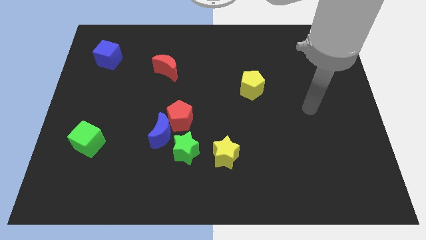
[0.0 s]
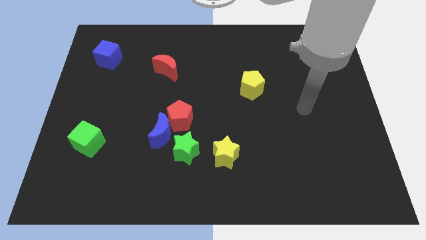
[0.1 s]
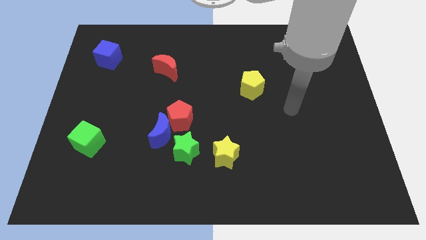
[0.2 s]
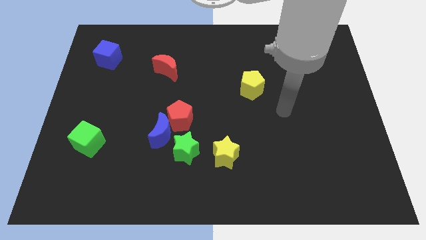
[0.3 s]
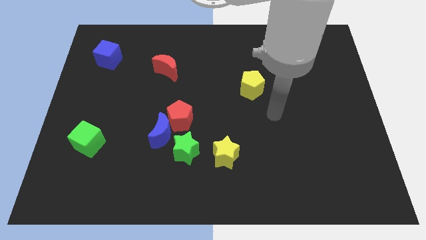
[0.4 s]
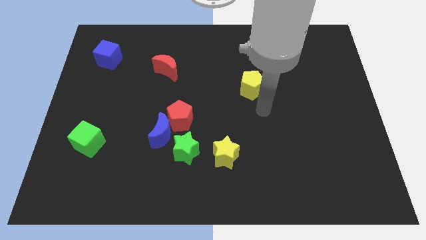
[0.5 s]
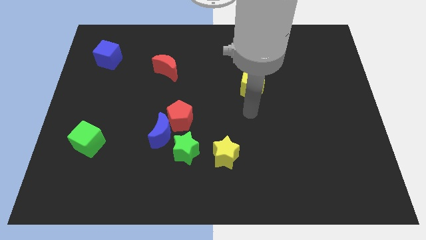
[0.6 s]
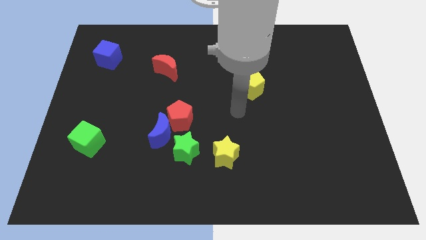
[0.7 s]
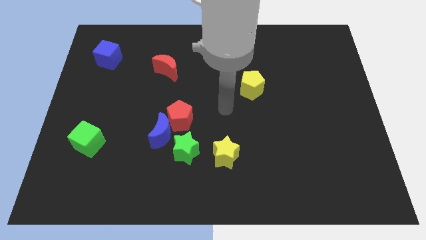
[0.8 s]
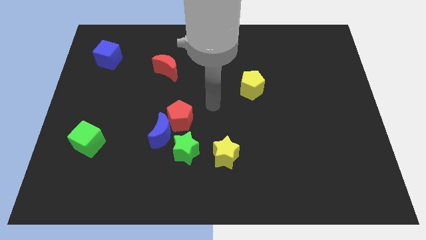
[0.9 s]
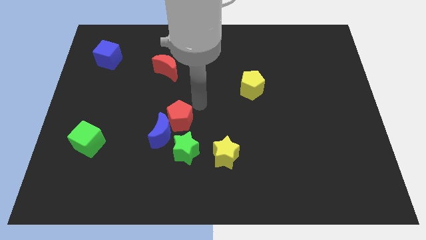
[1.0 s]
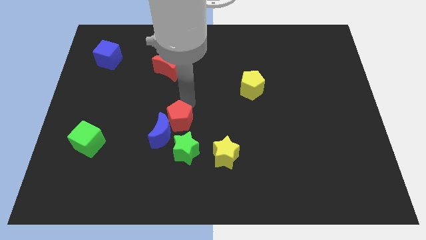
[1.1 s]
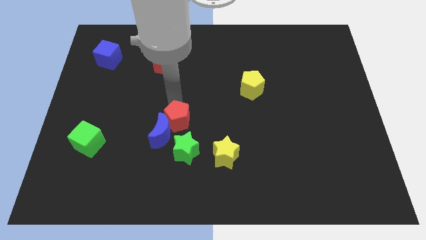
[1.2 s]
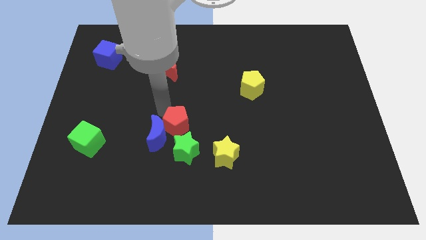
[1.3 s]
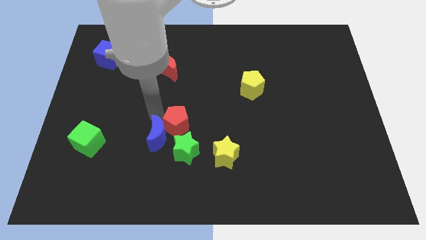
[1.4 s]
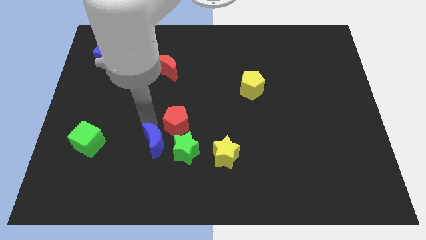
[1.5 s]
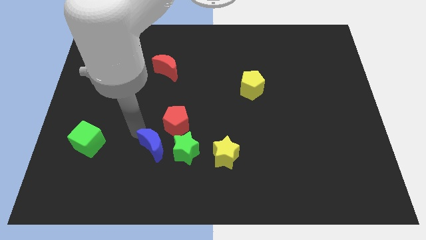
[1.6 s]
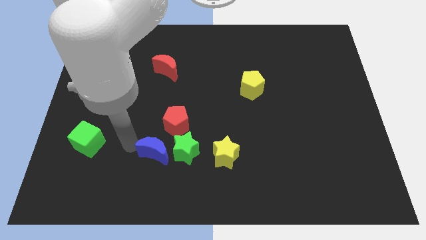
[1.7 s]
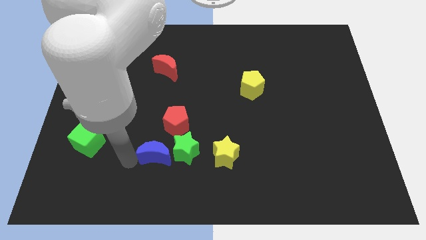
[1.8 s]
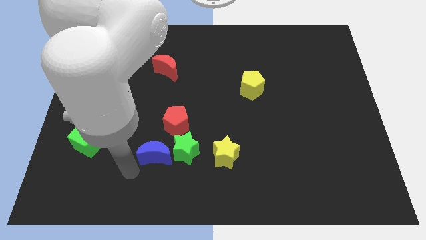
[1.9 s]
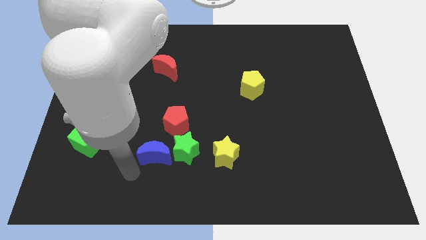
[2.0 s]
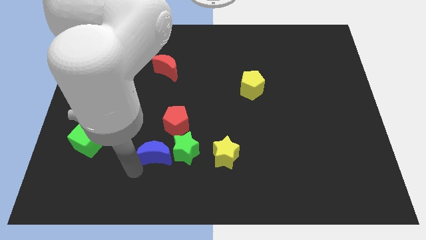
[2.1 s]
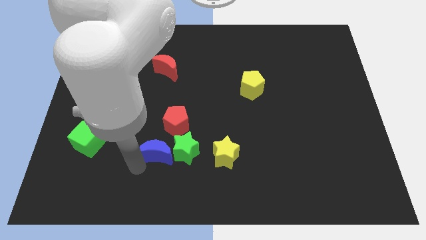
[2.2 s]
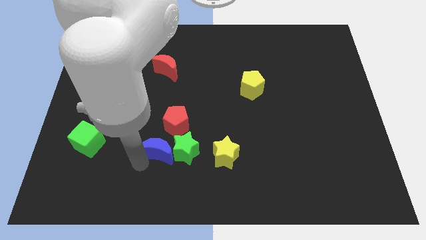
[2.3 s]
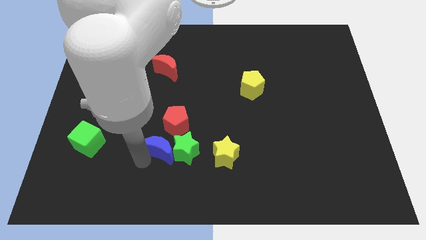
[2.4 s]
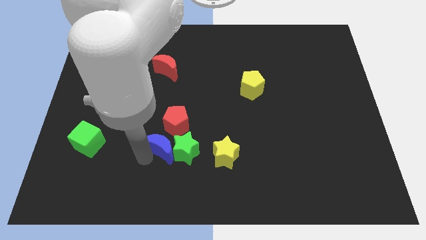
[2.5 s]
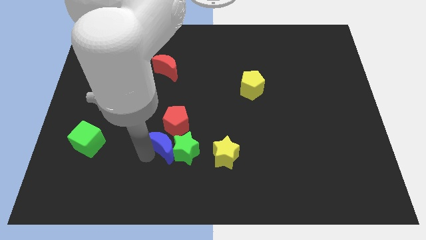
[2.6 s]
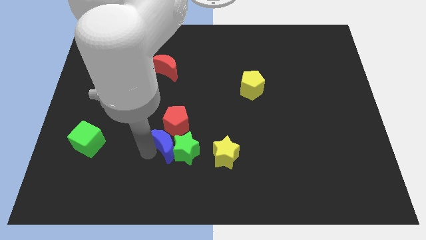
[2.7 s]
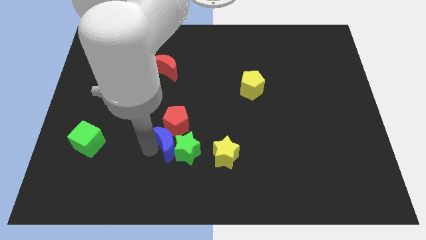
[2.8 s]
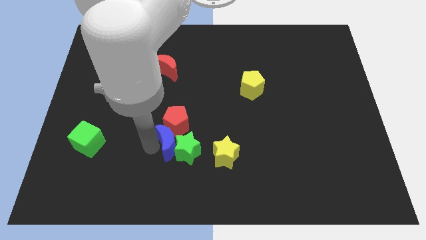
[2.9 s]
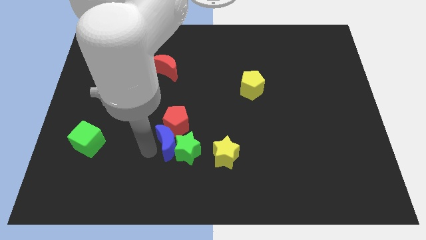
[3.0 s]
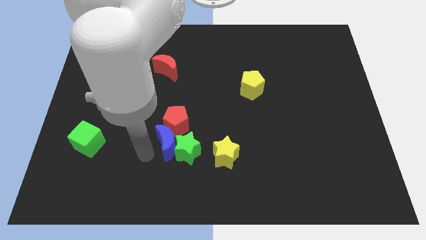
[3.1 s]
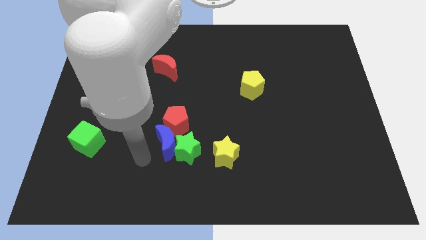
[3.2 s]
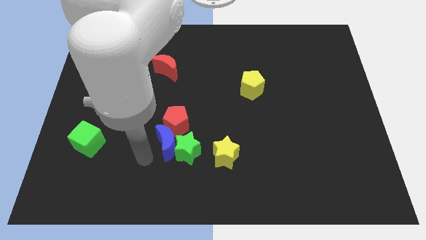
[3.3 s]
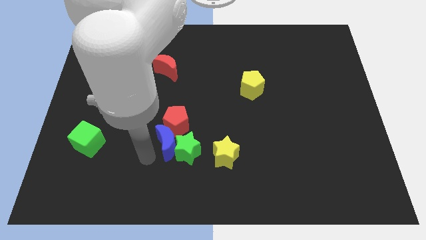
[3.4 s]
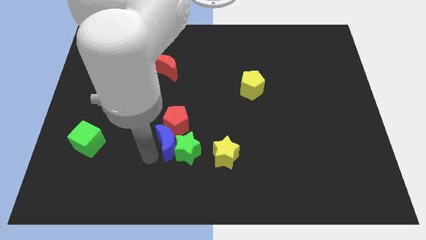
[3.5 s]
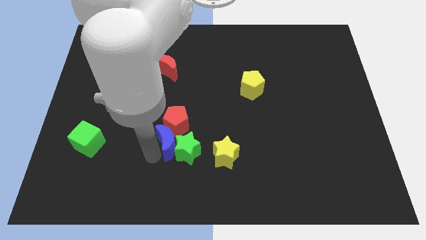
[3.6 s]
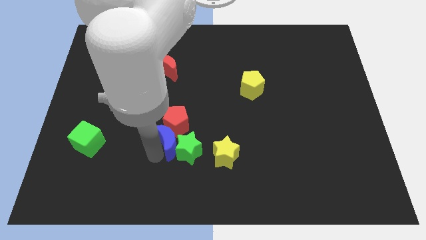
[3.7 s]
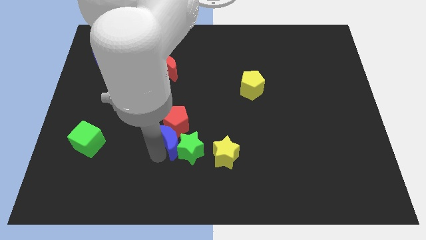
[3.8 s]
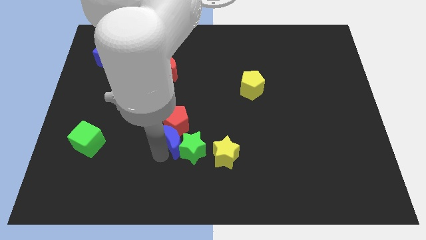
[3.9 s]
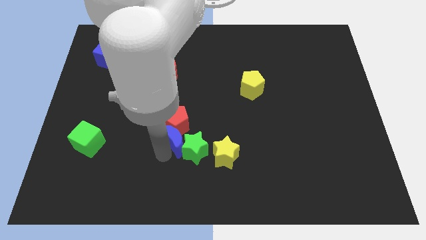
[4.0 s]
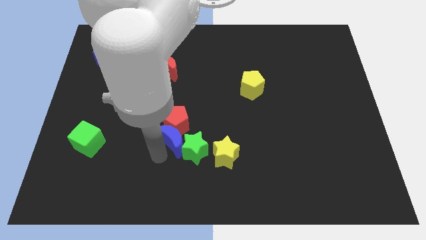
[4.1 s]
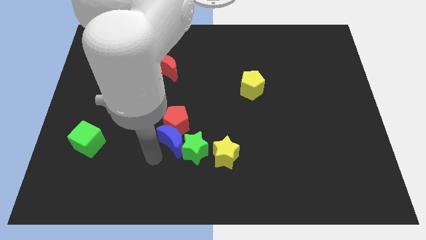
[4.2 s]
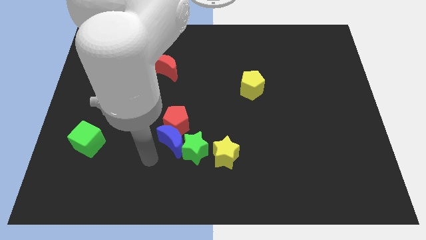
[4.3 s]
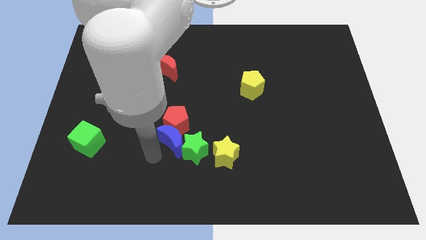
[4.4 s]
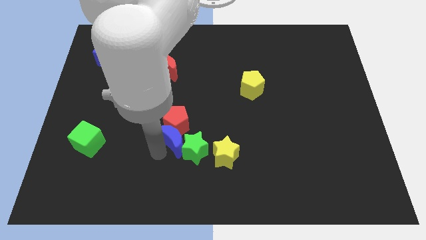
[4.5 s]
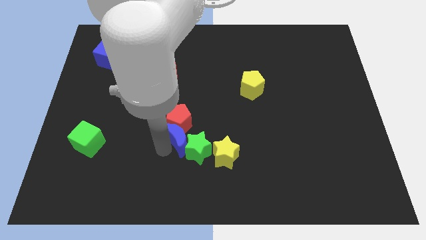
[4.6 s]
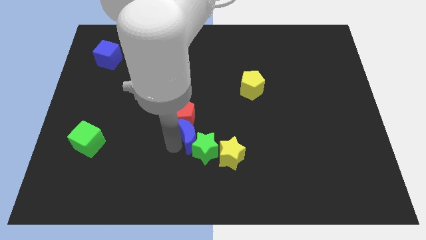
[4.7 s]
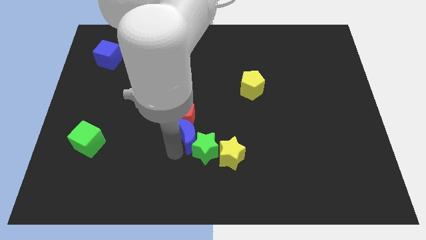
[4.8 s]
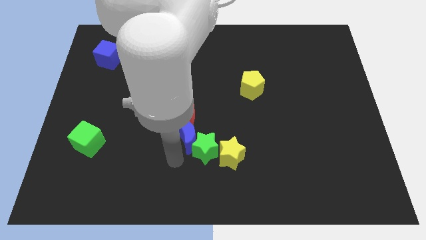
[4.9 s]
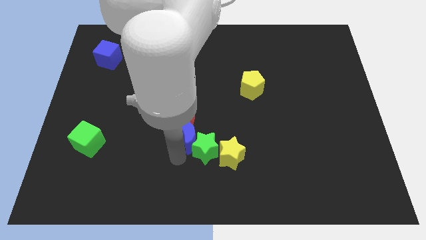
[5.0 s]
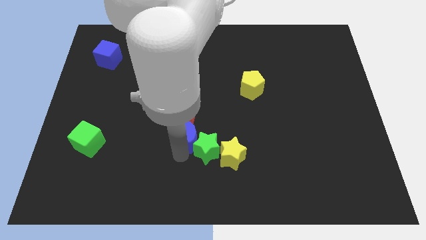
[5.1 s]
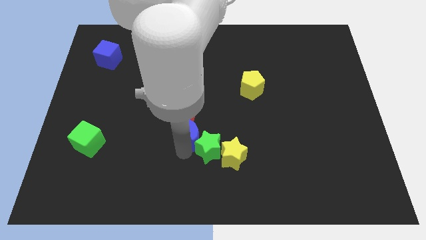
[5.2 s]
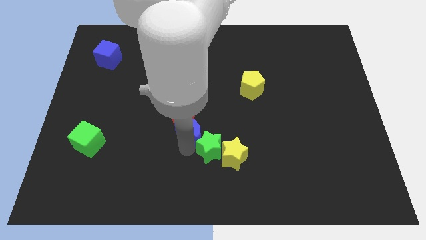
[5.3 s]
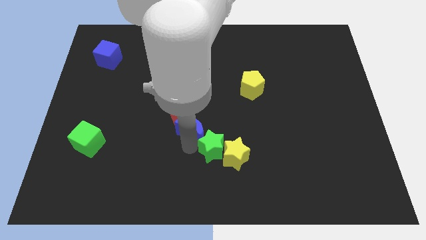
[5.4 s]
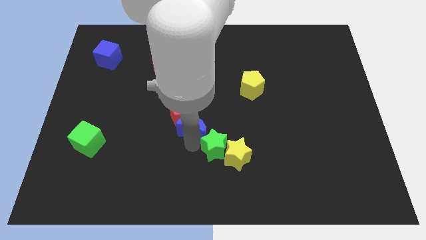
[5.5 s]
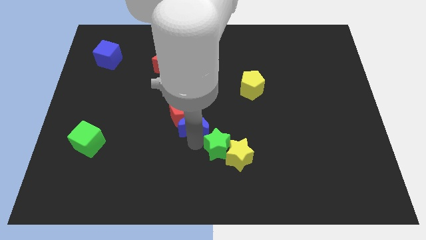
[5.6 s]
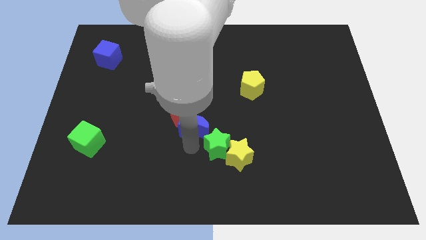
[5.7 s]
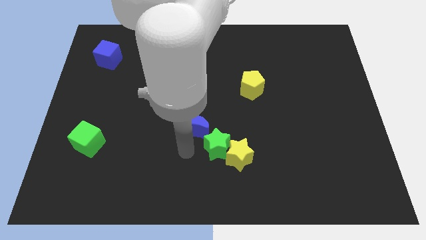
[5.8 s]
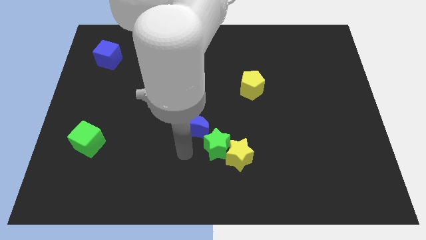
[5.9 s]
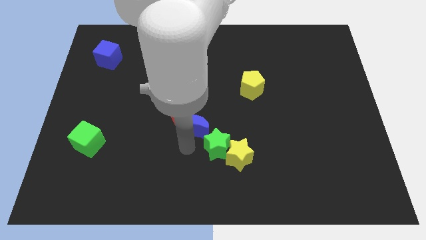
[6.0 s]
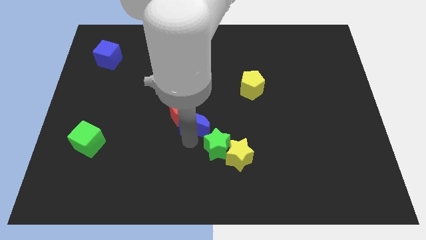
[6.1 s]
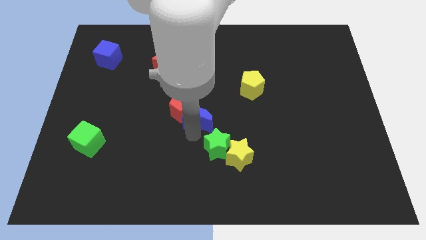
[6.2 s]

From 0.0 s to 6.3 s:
slightly slide the blue moon diagonally up and to the right

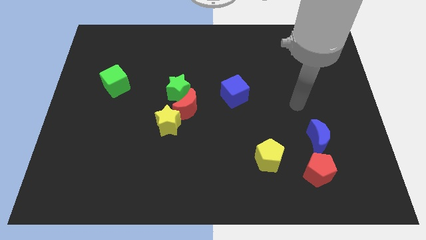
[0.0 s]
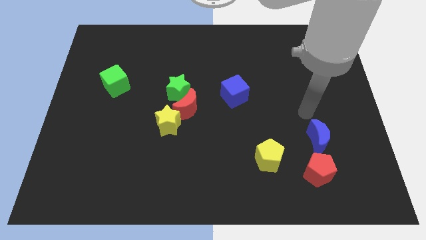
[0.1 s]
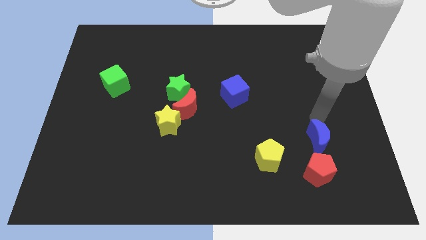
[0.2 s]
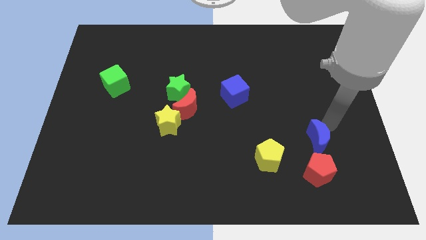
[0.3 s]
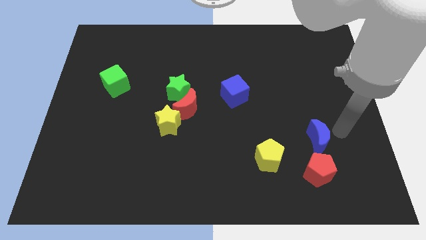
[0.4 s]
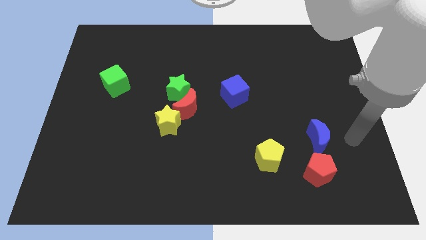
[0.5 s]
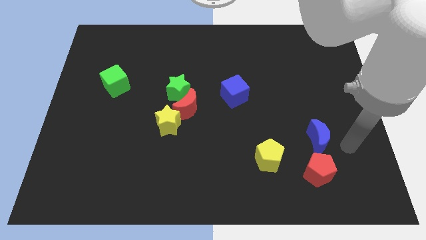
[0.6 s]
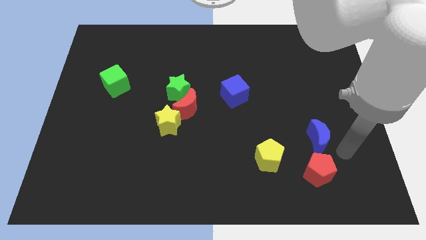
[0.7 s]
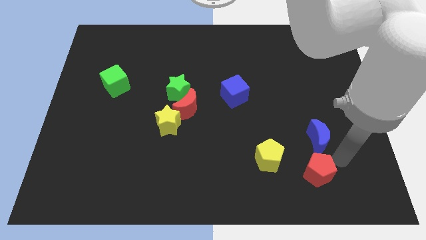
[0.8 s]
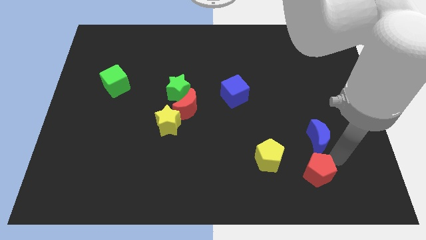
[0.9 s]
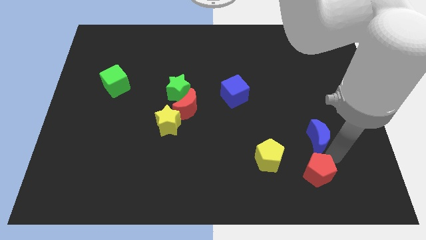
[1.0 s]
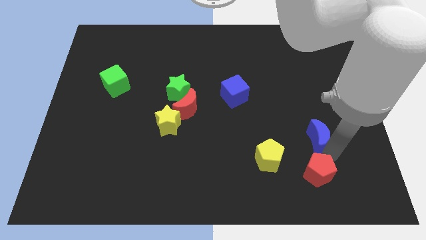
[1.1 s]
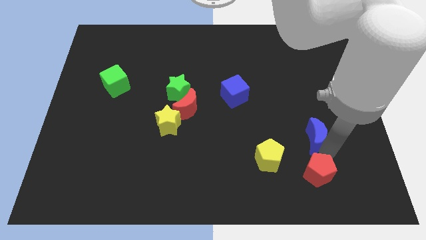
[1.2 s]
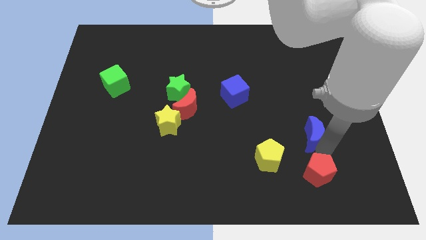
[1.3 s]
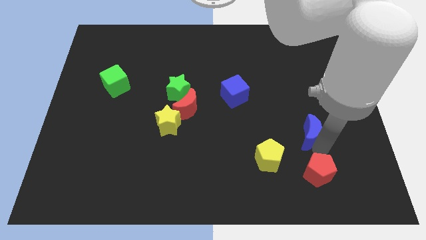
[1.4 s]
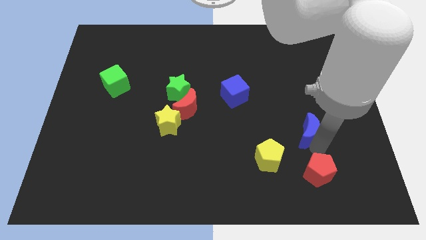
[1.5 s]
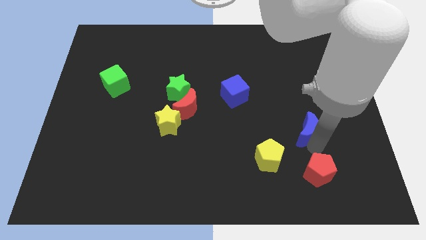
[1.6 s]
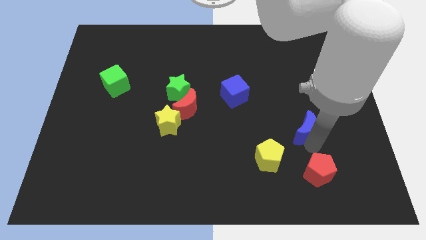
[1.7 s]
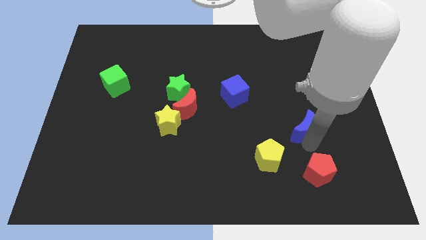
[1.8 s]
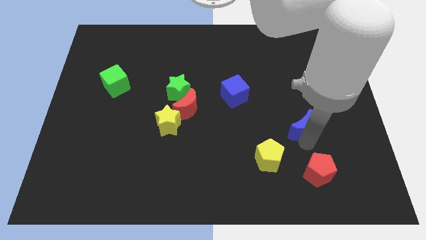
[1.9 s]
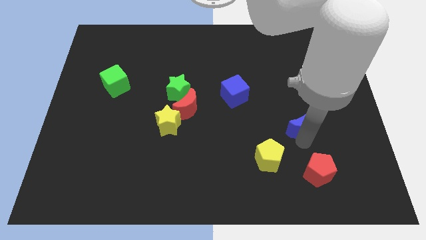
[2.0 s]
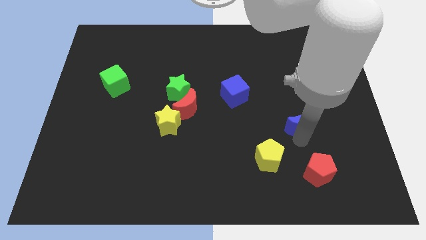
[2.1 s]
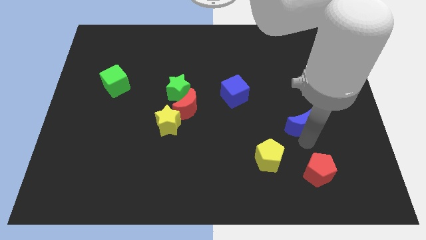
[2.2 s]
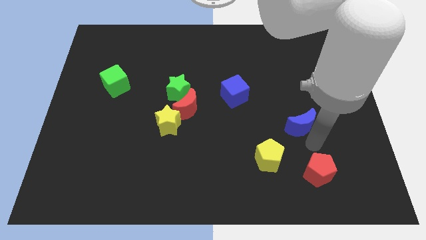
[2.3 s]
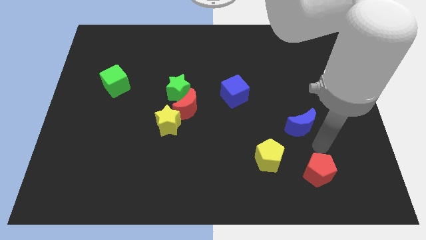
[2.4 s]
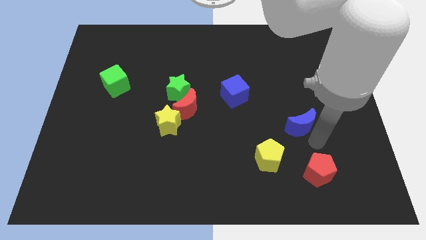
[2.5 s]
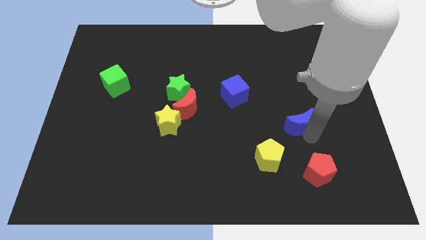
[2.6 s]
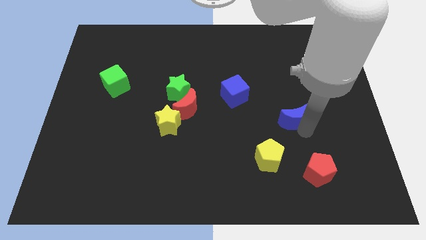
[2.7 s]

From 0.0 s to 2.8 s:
push the blue moon a little bit diagonally up and to the left
